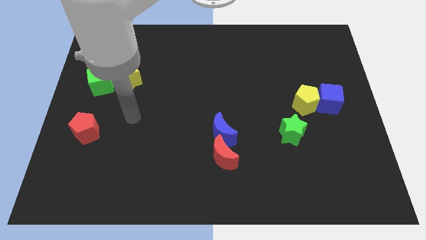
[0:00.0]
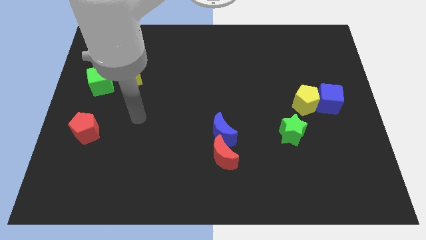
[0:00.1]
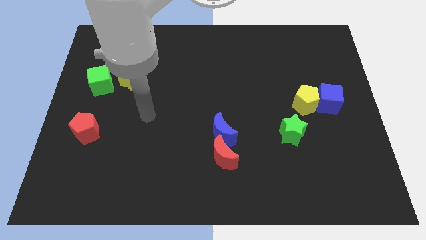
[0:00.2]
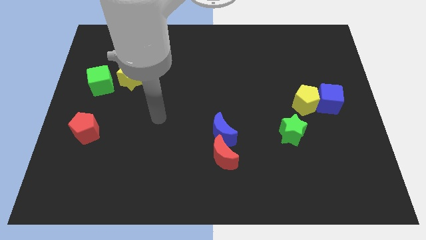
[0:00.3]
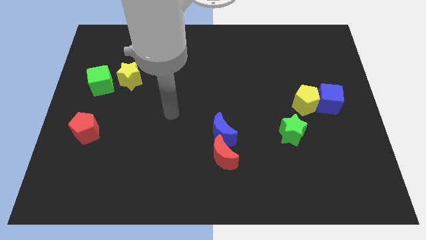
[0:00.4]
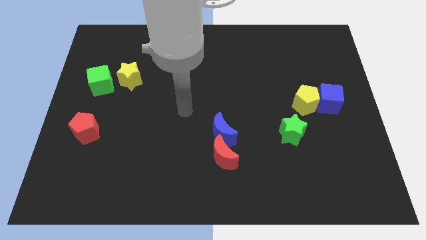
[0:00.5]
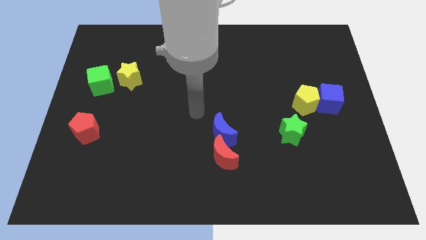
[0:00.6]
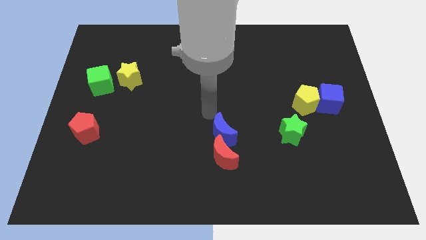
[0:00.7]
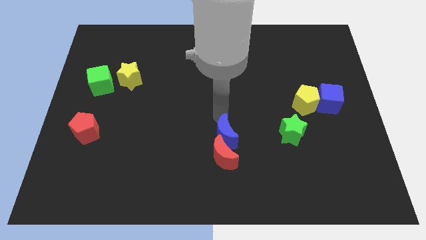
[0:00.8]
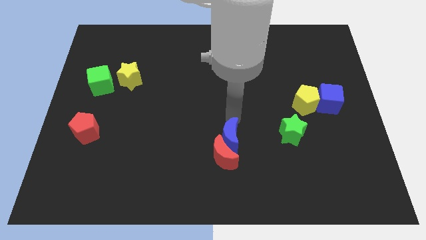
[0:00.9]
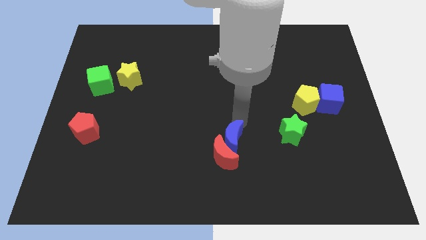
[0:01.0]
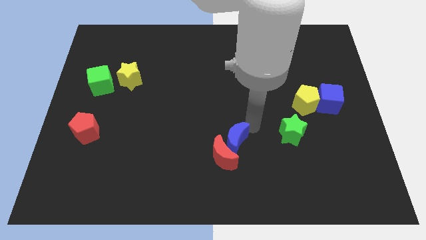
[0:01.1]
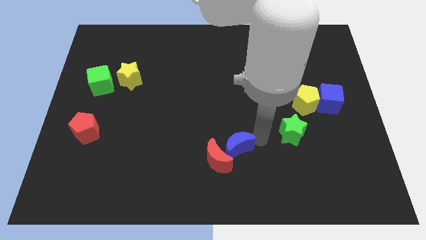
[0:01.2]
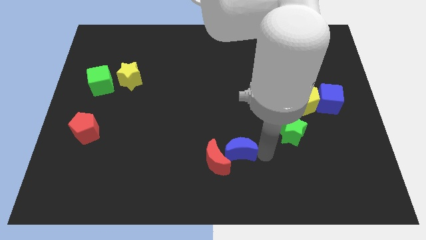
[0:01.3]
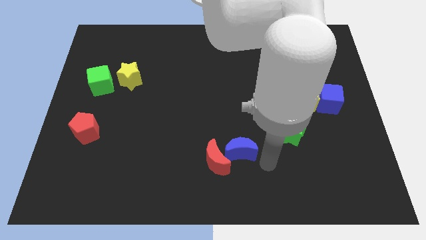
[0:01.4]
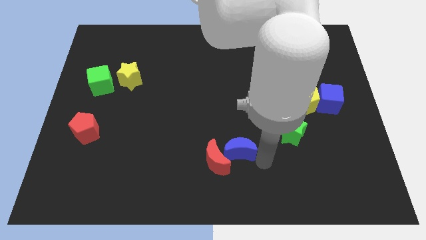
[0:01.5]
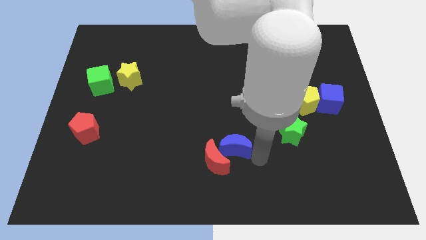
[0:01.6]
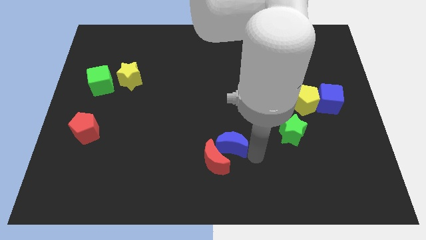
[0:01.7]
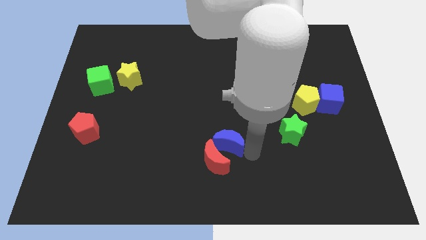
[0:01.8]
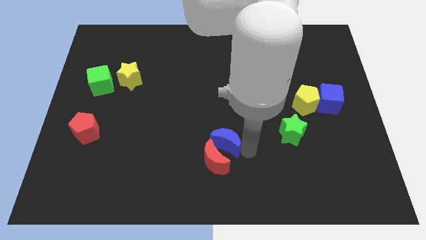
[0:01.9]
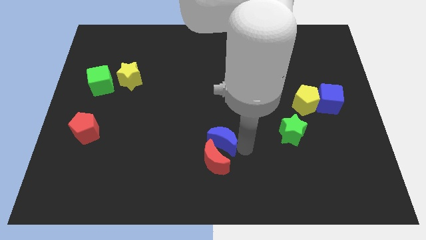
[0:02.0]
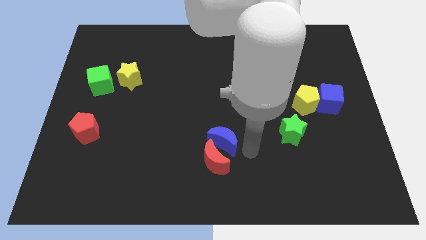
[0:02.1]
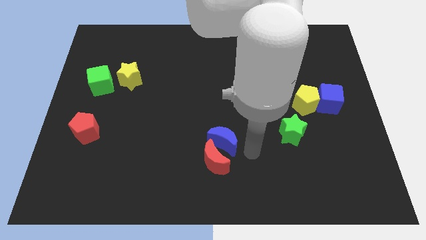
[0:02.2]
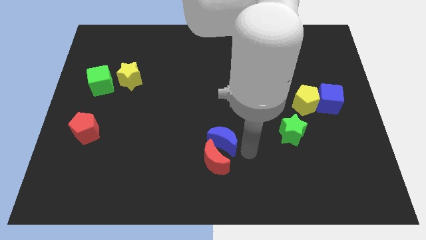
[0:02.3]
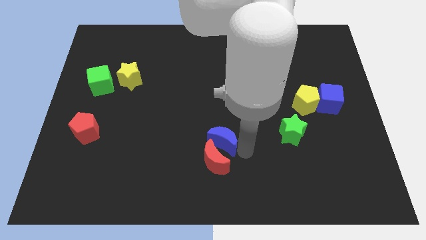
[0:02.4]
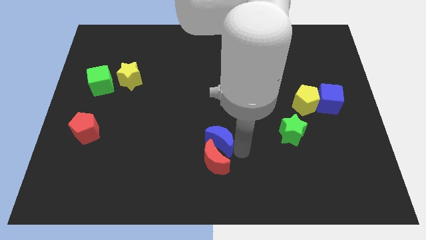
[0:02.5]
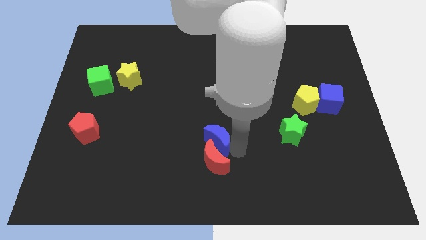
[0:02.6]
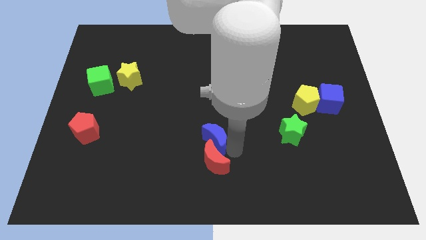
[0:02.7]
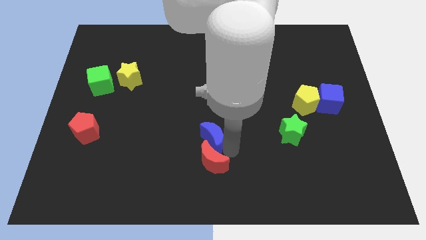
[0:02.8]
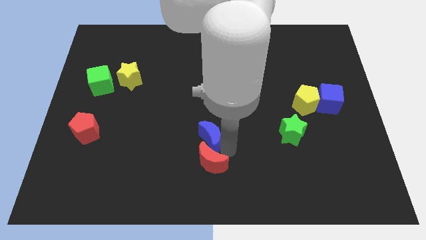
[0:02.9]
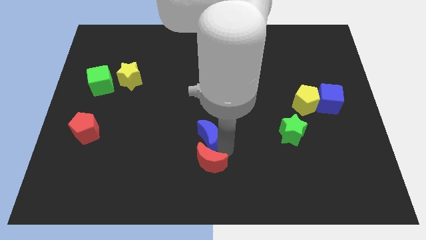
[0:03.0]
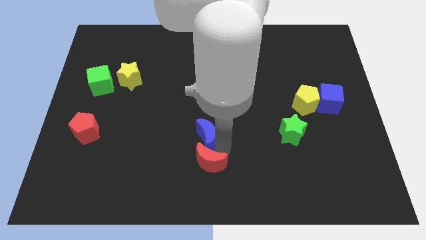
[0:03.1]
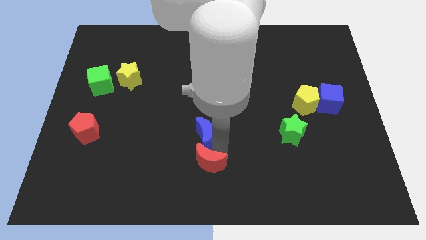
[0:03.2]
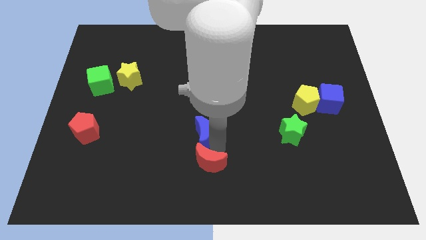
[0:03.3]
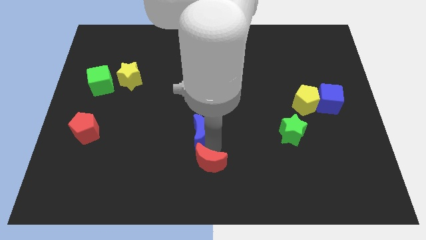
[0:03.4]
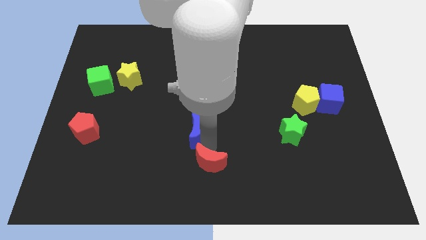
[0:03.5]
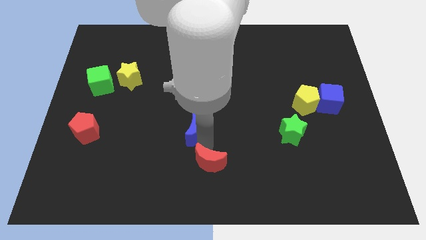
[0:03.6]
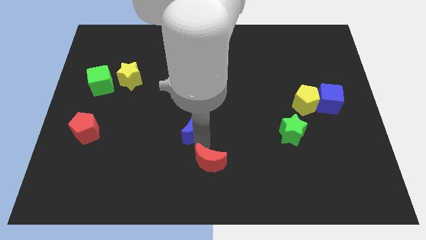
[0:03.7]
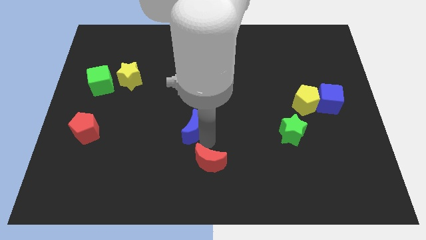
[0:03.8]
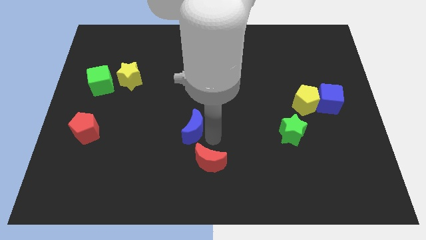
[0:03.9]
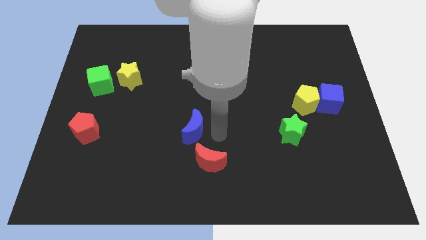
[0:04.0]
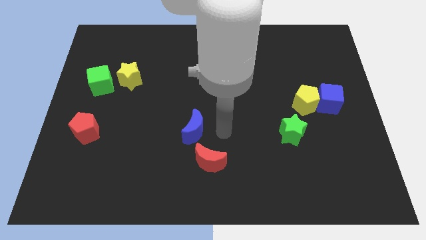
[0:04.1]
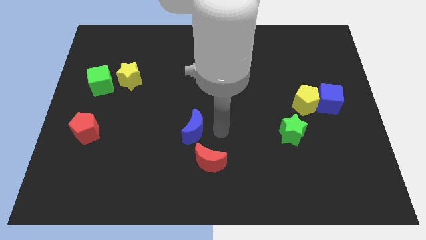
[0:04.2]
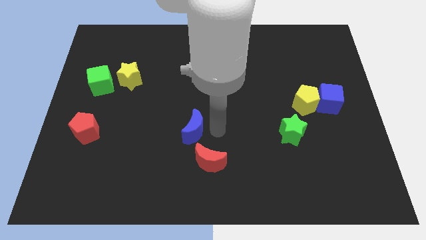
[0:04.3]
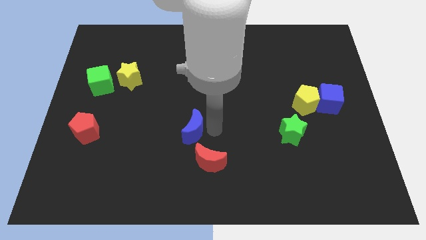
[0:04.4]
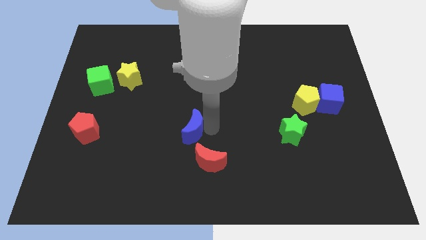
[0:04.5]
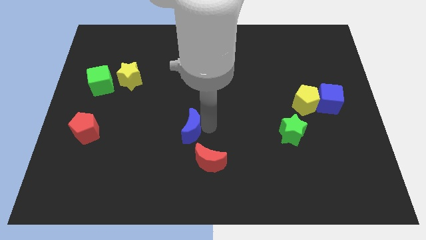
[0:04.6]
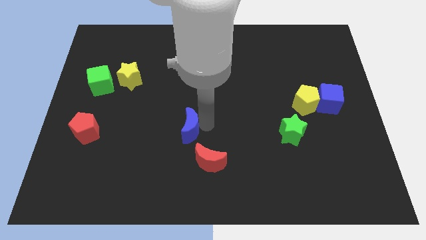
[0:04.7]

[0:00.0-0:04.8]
push the blue moon to the left slightly

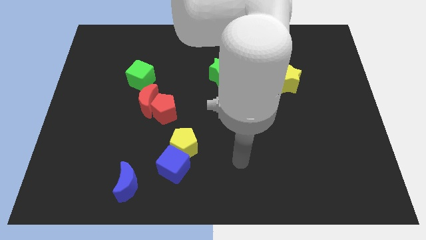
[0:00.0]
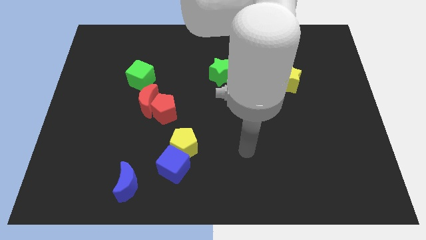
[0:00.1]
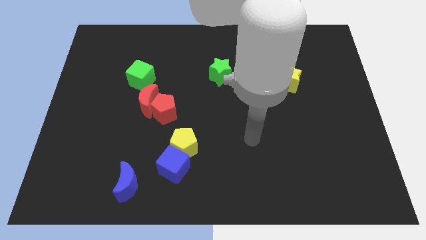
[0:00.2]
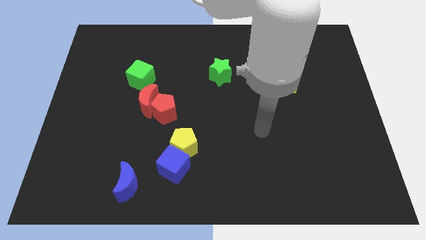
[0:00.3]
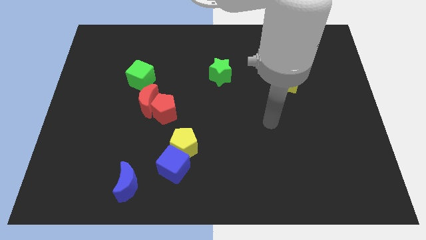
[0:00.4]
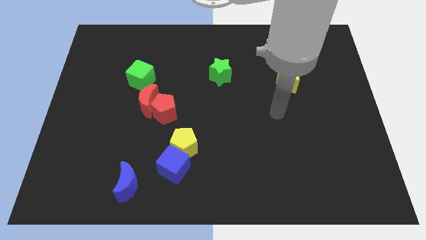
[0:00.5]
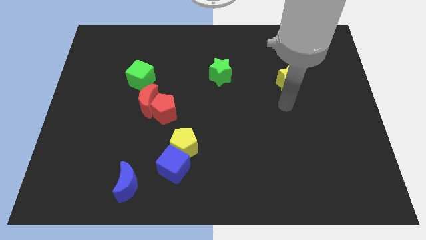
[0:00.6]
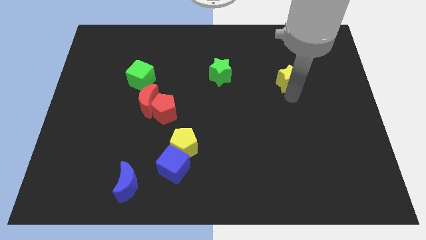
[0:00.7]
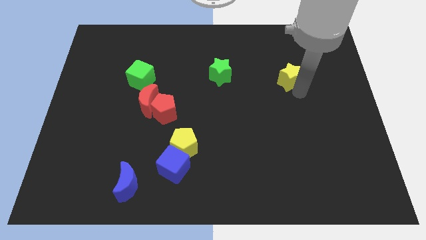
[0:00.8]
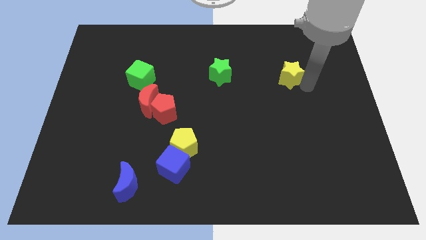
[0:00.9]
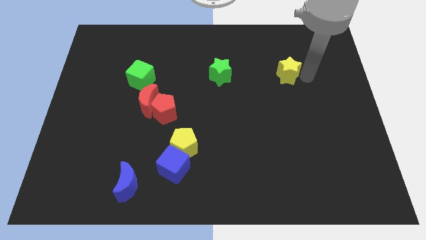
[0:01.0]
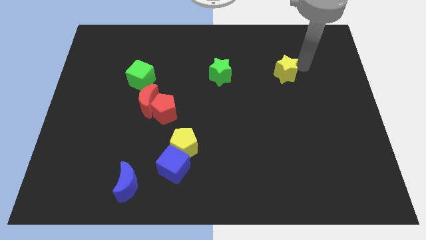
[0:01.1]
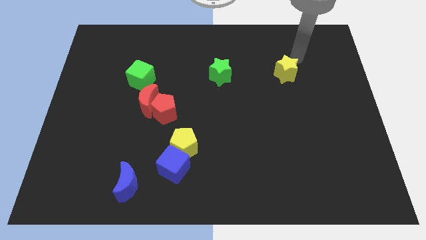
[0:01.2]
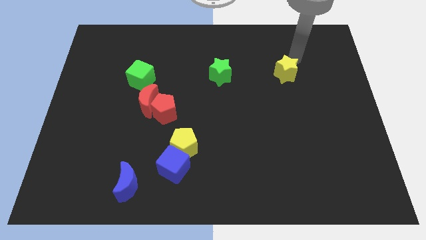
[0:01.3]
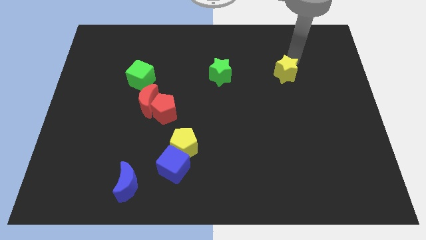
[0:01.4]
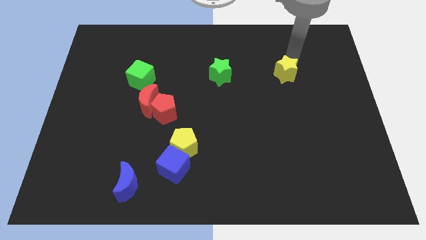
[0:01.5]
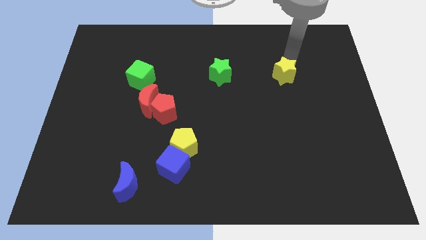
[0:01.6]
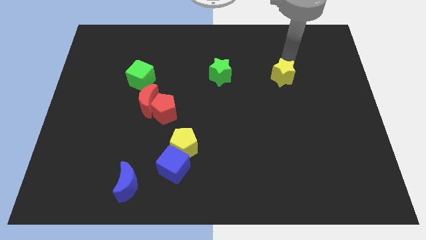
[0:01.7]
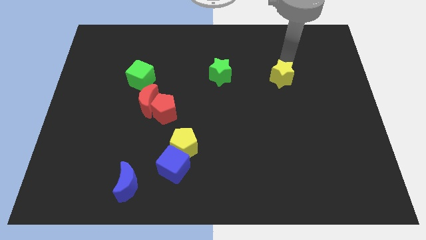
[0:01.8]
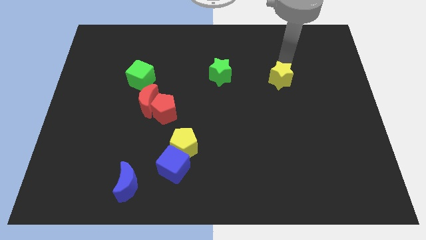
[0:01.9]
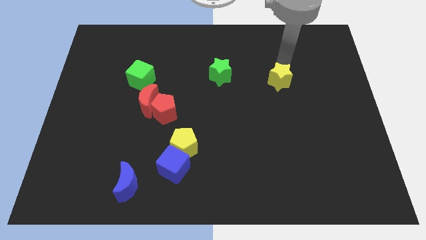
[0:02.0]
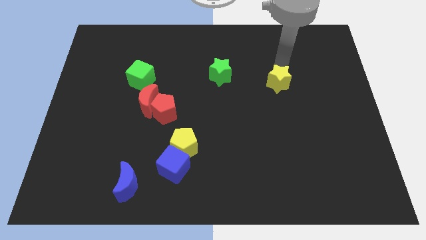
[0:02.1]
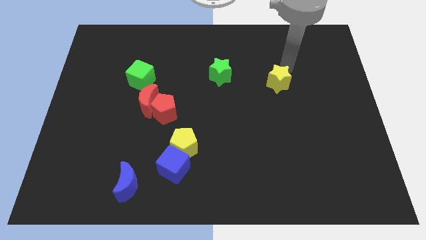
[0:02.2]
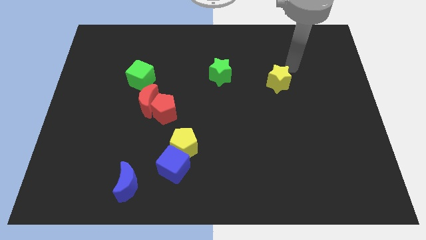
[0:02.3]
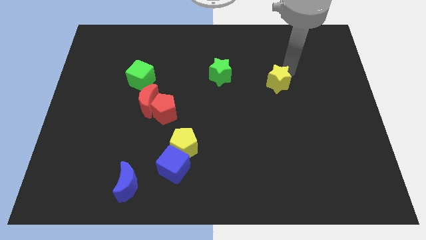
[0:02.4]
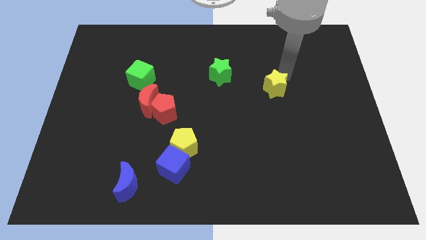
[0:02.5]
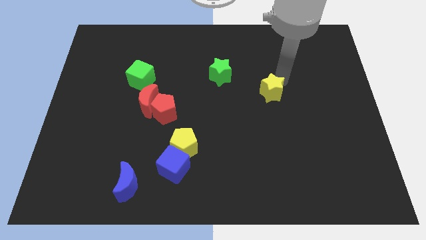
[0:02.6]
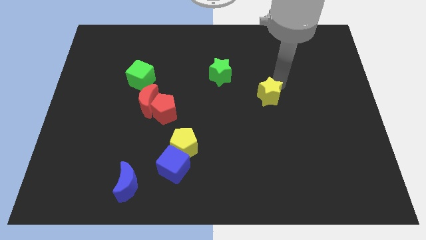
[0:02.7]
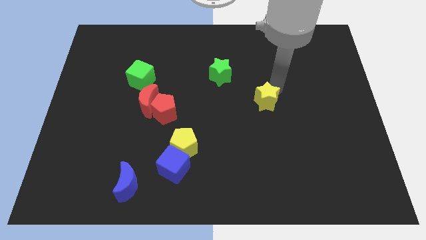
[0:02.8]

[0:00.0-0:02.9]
push the yellow star downwards and left diagonally somewhat
